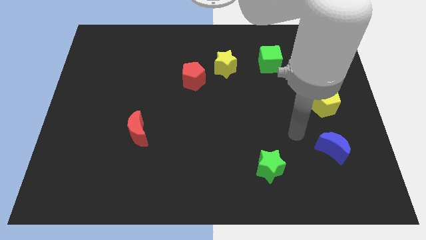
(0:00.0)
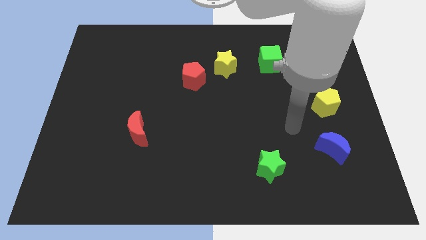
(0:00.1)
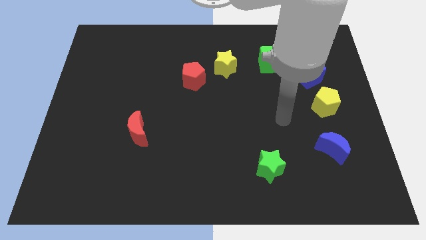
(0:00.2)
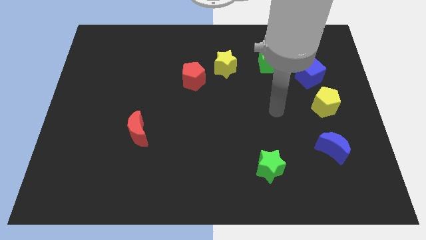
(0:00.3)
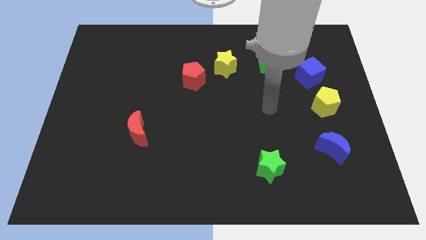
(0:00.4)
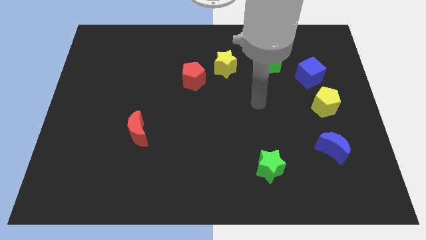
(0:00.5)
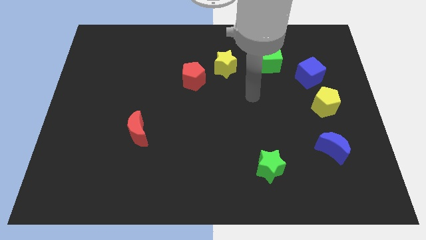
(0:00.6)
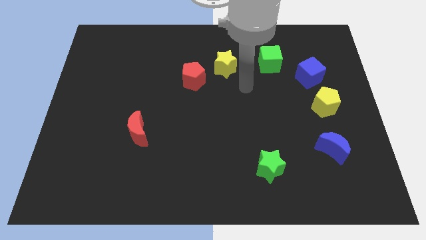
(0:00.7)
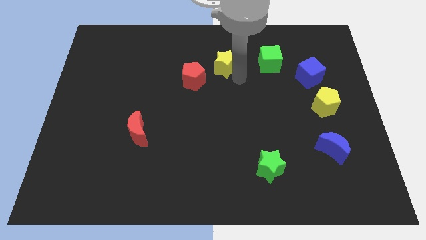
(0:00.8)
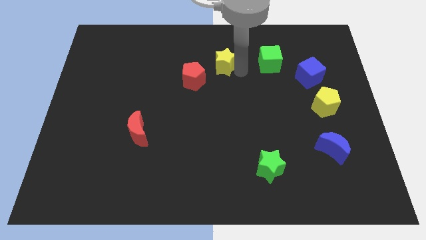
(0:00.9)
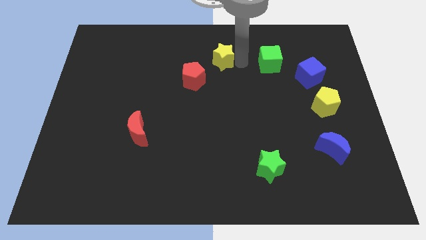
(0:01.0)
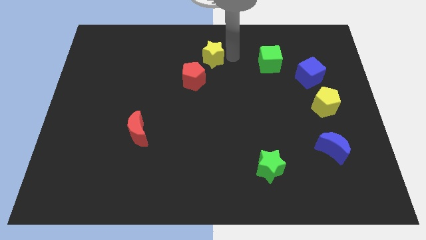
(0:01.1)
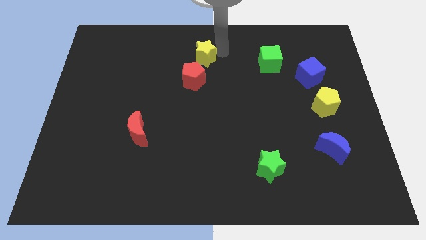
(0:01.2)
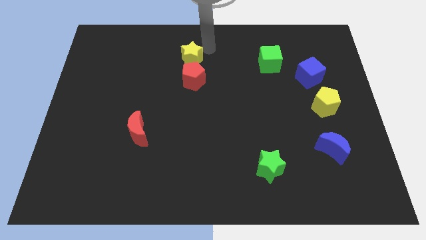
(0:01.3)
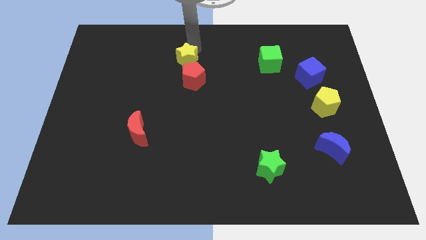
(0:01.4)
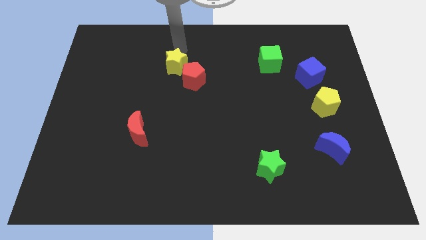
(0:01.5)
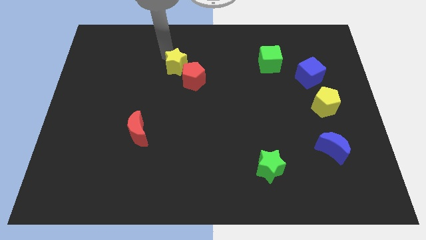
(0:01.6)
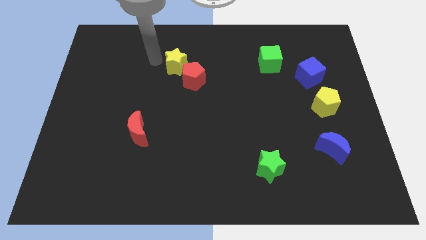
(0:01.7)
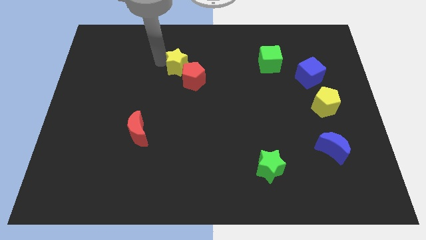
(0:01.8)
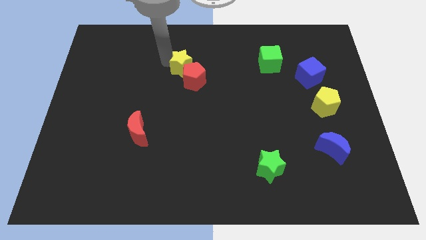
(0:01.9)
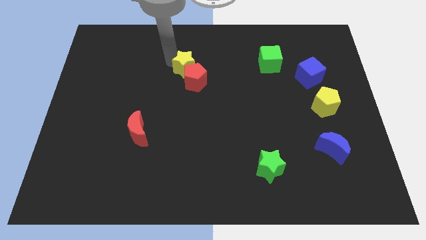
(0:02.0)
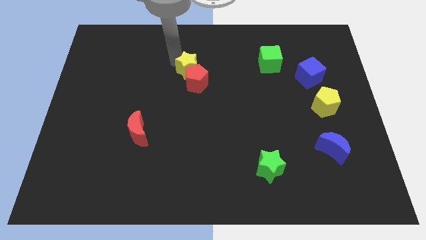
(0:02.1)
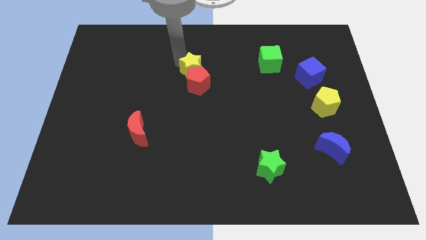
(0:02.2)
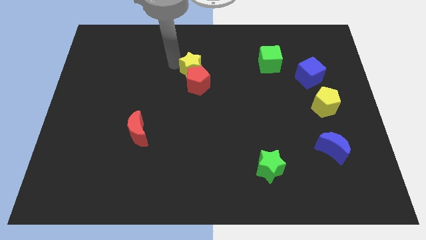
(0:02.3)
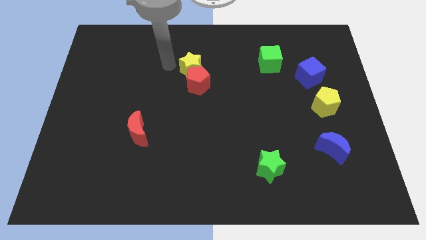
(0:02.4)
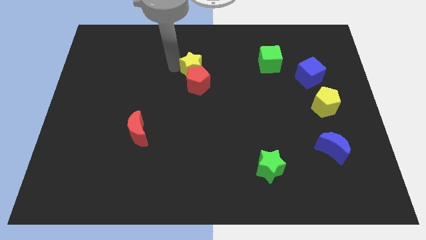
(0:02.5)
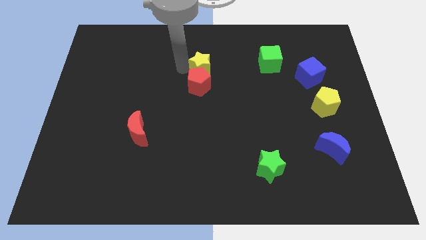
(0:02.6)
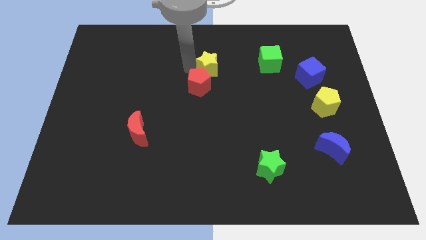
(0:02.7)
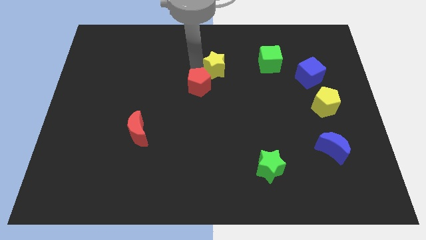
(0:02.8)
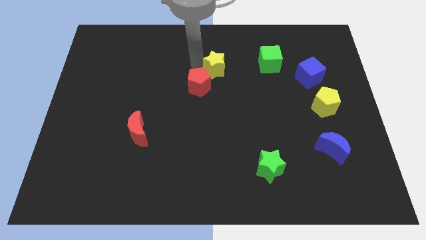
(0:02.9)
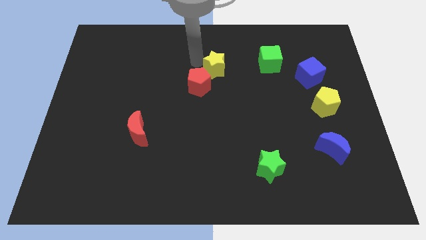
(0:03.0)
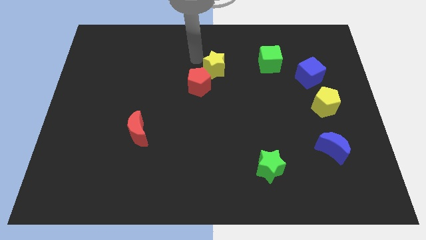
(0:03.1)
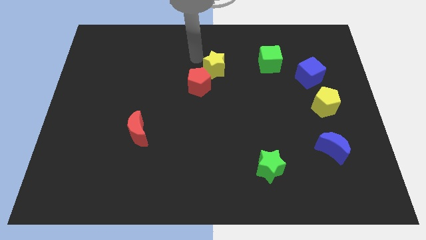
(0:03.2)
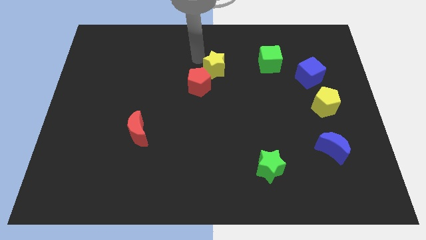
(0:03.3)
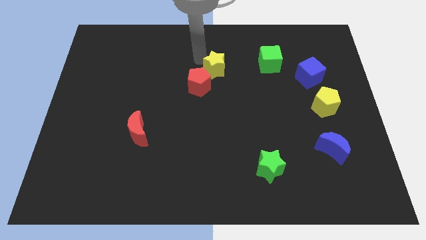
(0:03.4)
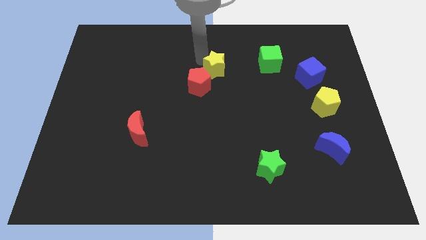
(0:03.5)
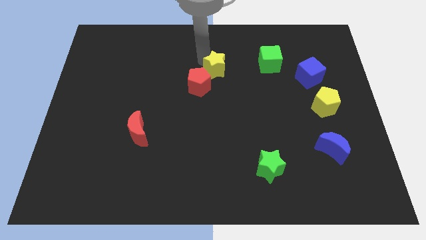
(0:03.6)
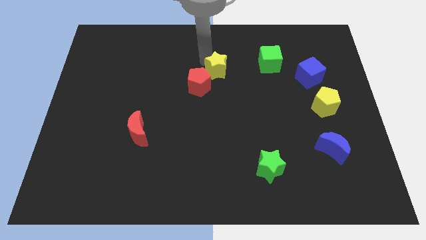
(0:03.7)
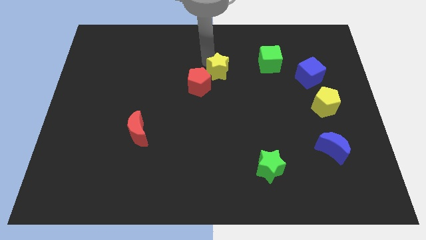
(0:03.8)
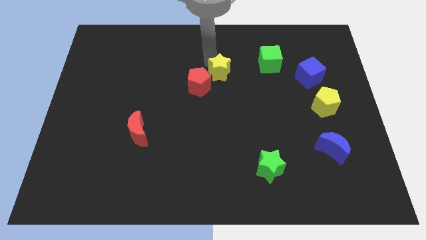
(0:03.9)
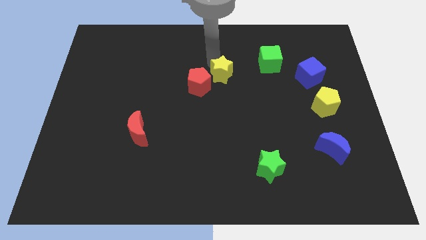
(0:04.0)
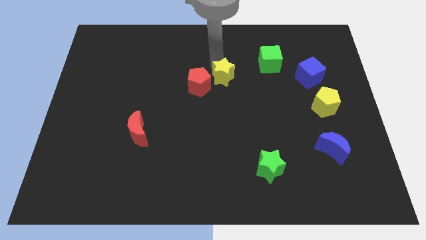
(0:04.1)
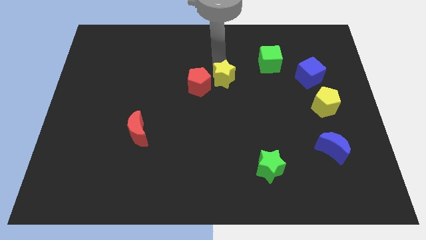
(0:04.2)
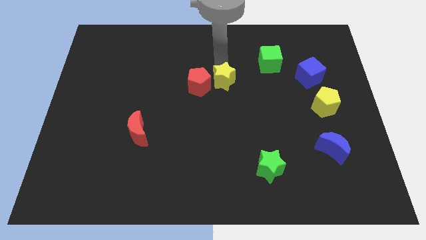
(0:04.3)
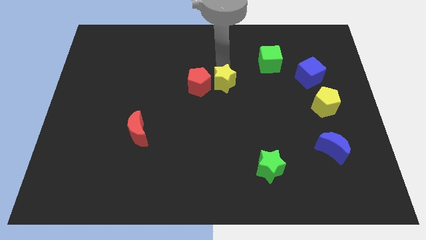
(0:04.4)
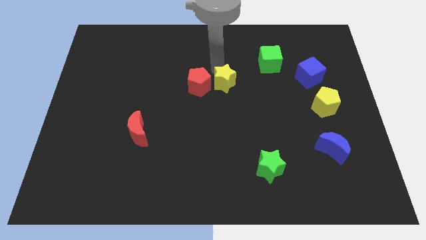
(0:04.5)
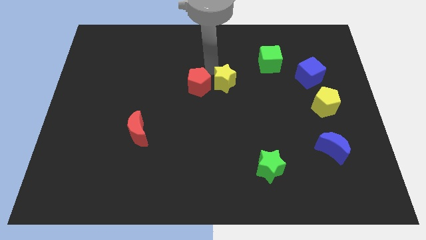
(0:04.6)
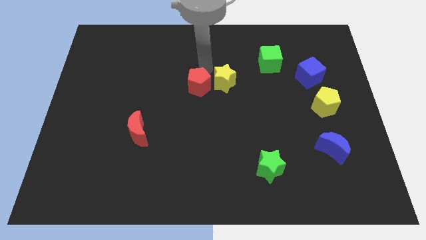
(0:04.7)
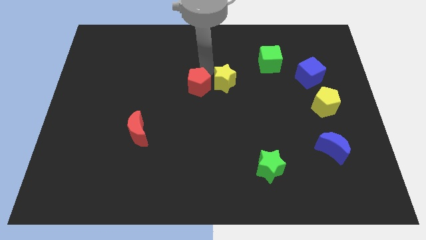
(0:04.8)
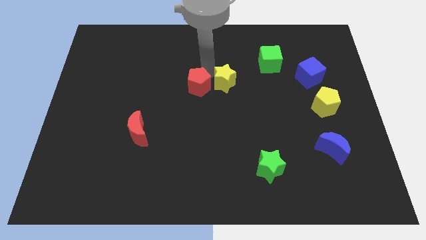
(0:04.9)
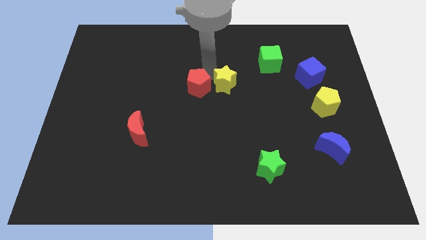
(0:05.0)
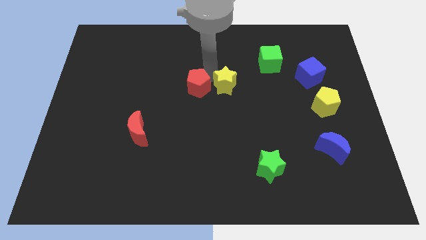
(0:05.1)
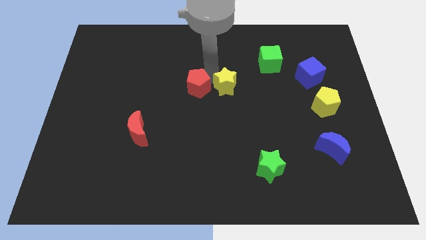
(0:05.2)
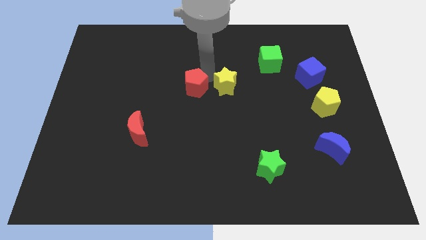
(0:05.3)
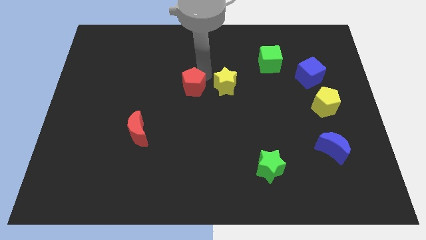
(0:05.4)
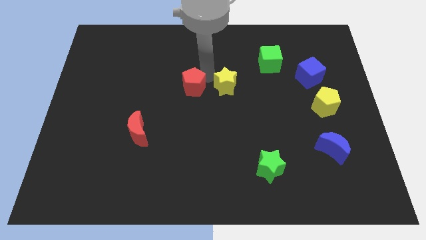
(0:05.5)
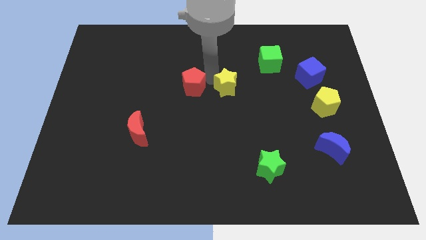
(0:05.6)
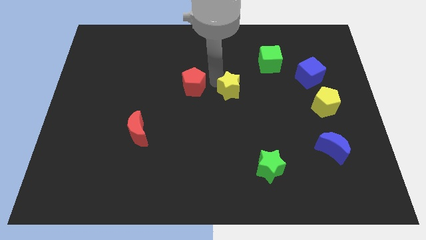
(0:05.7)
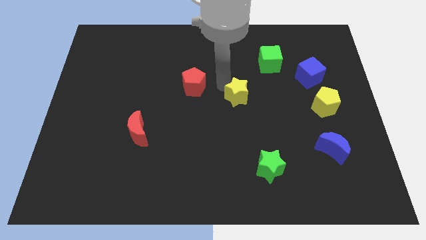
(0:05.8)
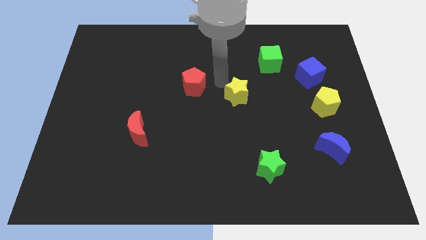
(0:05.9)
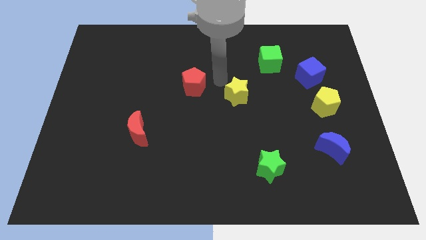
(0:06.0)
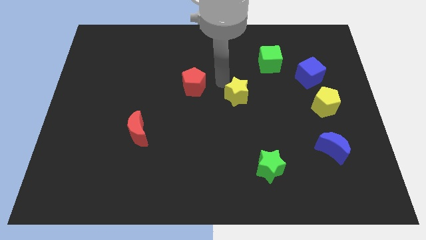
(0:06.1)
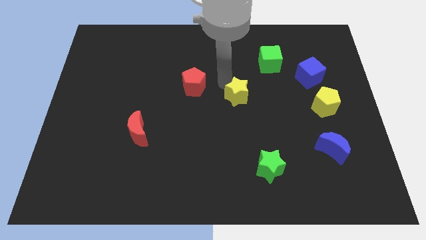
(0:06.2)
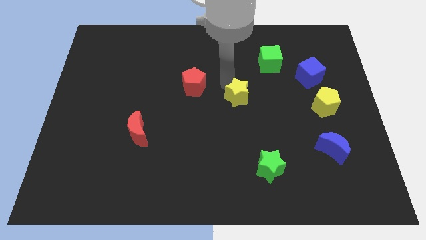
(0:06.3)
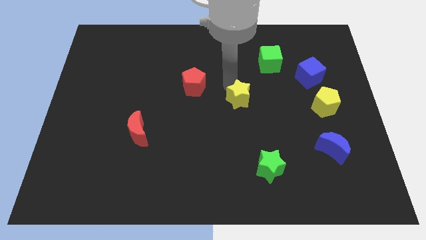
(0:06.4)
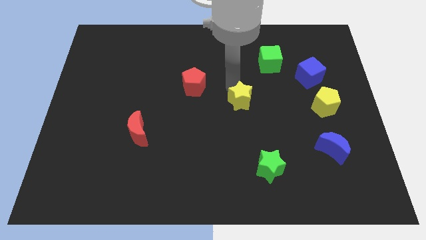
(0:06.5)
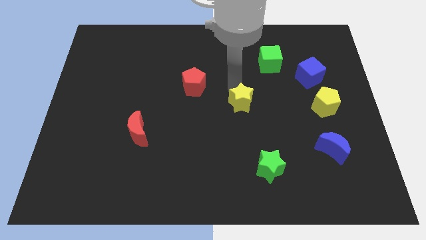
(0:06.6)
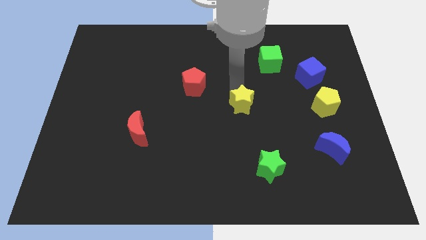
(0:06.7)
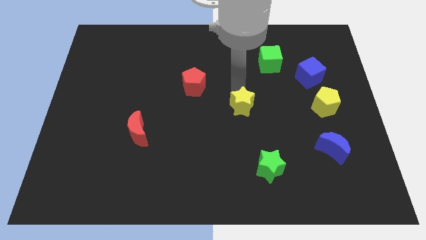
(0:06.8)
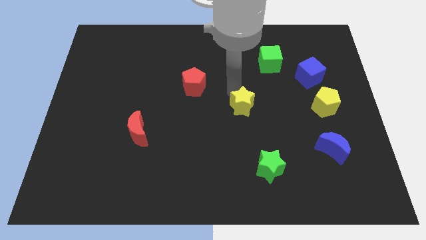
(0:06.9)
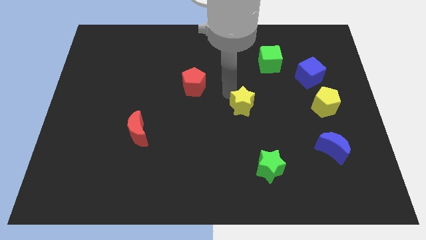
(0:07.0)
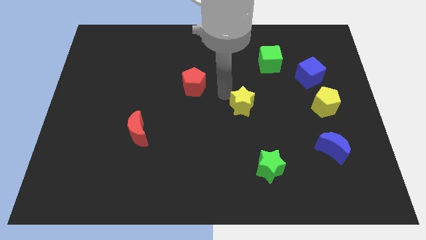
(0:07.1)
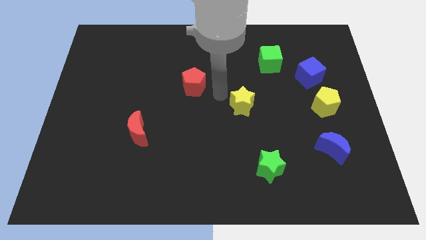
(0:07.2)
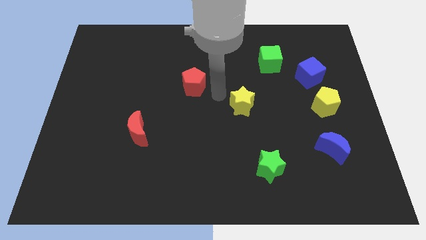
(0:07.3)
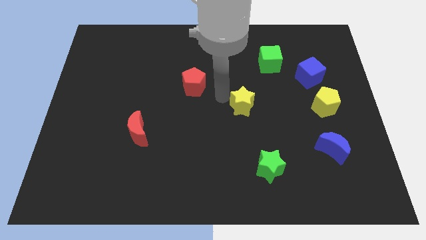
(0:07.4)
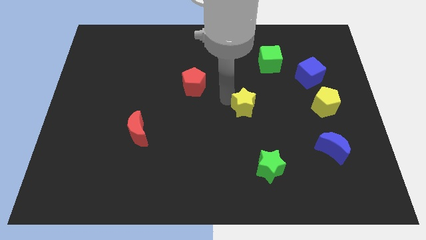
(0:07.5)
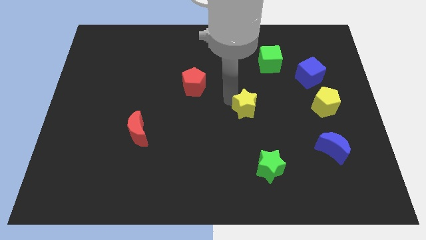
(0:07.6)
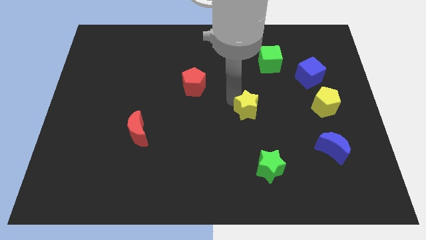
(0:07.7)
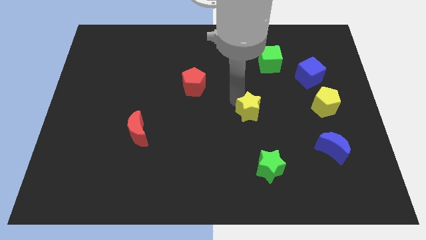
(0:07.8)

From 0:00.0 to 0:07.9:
slide the yellow star to the top side of the green star

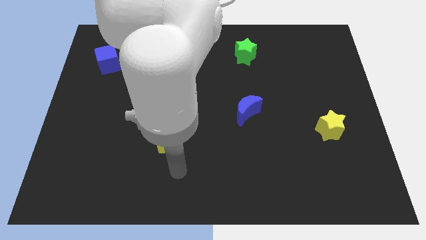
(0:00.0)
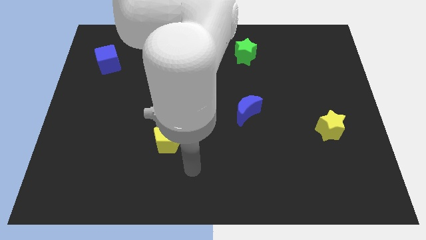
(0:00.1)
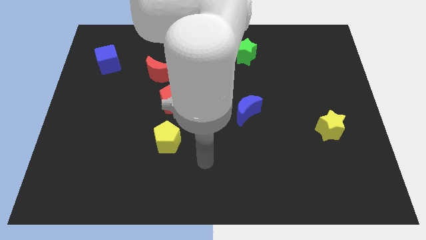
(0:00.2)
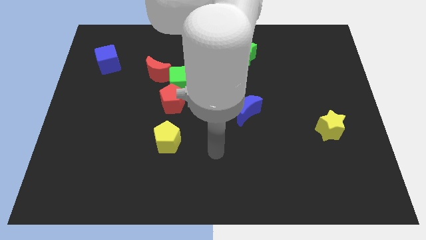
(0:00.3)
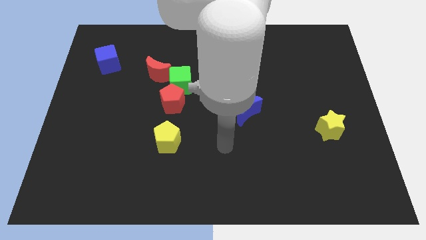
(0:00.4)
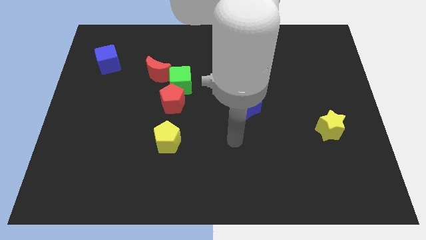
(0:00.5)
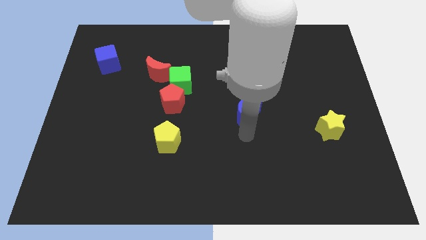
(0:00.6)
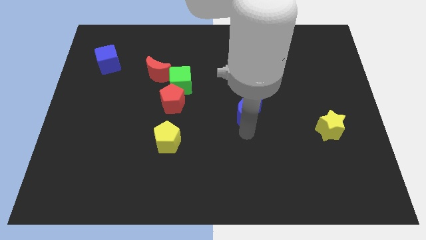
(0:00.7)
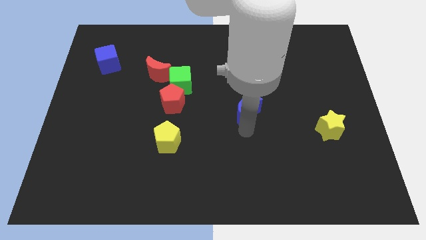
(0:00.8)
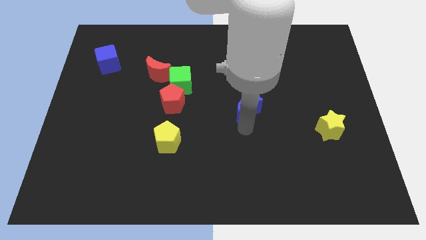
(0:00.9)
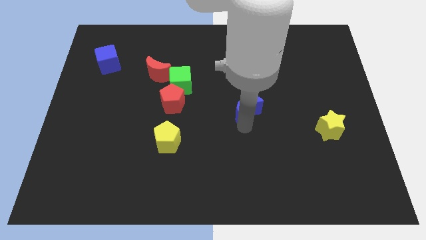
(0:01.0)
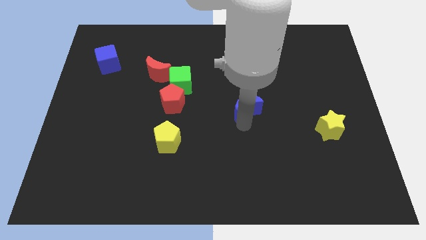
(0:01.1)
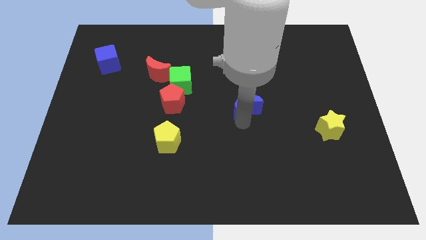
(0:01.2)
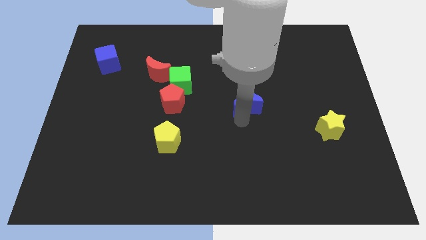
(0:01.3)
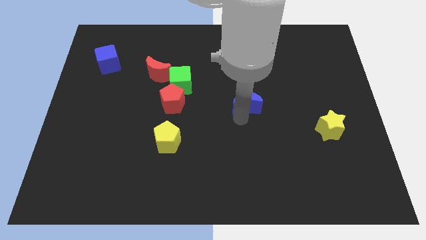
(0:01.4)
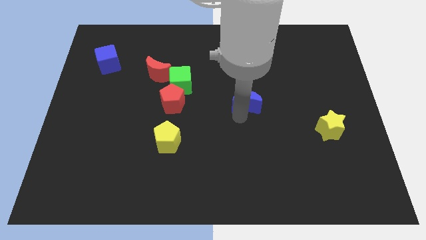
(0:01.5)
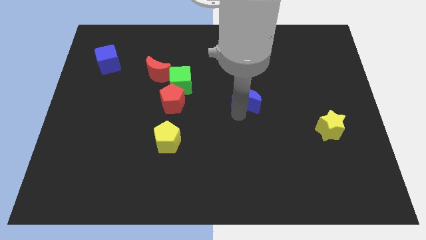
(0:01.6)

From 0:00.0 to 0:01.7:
move the blue moon to the bottom side of the green star
